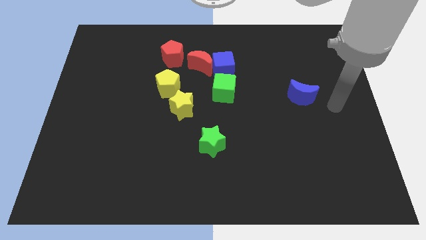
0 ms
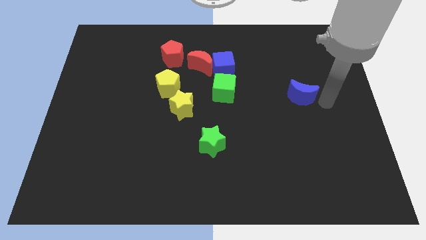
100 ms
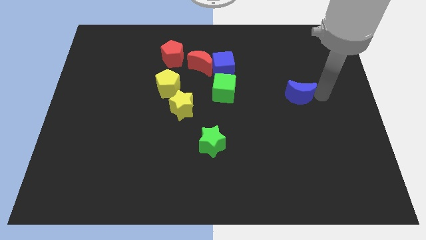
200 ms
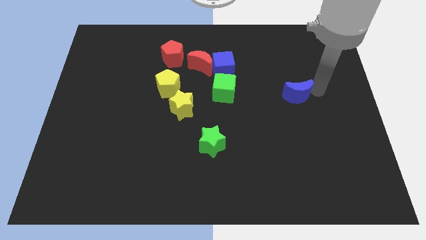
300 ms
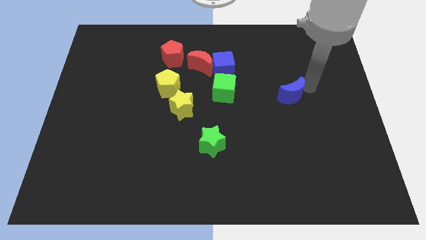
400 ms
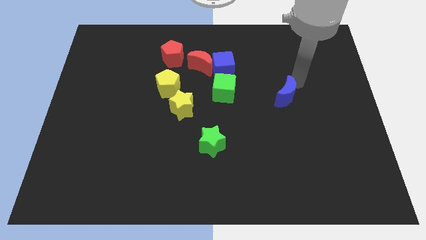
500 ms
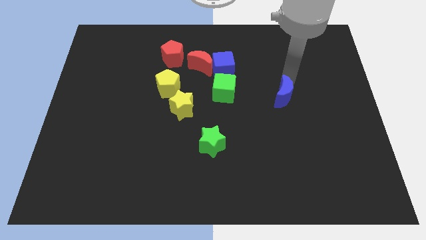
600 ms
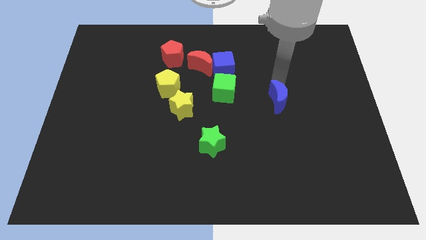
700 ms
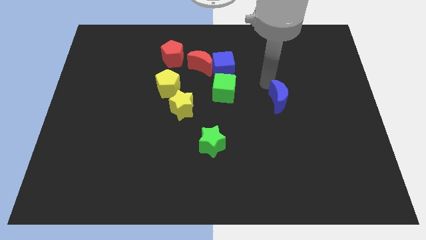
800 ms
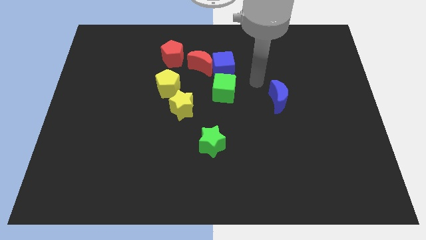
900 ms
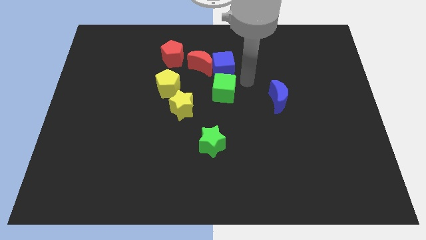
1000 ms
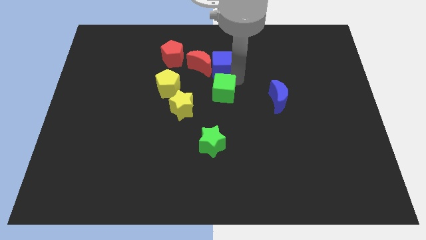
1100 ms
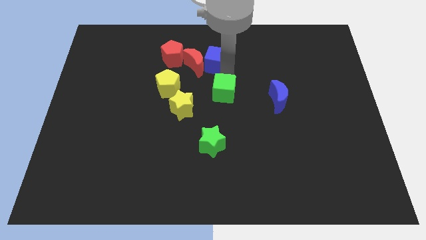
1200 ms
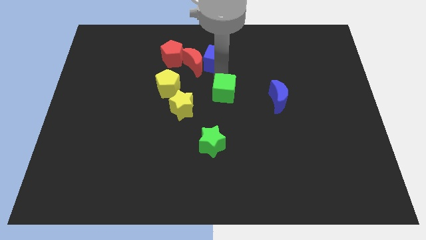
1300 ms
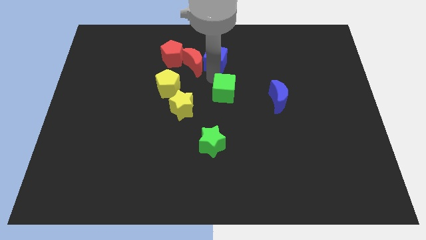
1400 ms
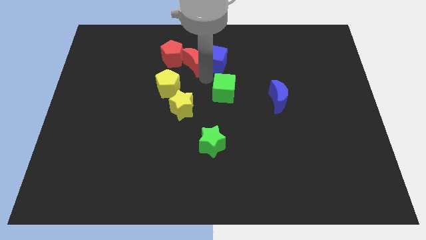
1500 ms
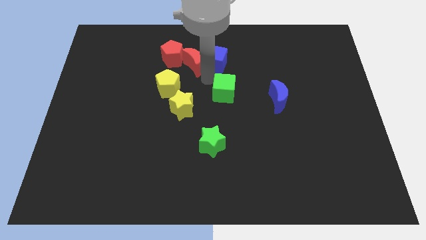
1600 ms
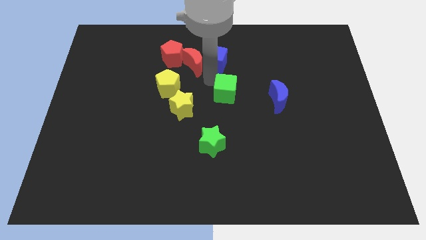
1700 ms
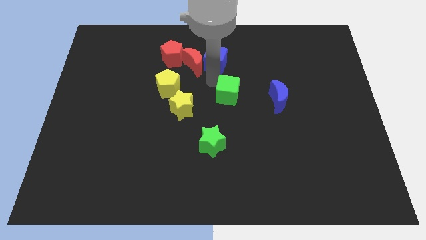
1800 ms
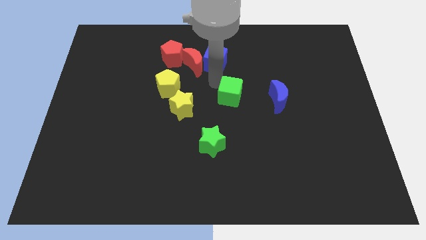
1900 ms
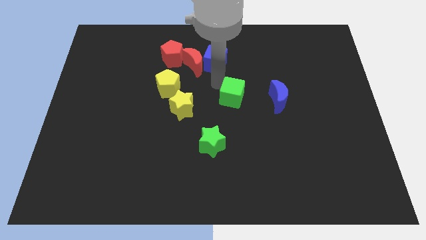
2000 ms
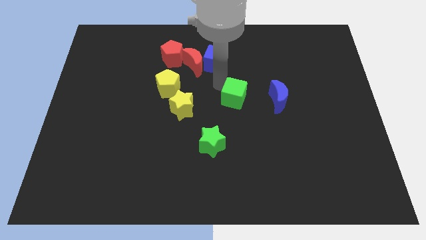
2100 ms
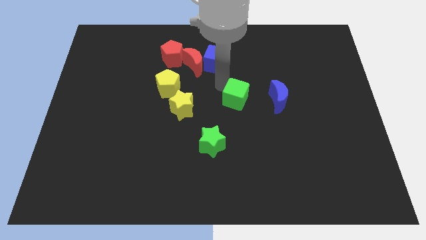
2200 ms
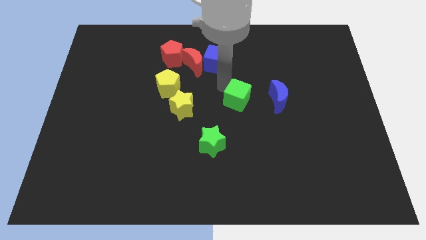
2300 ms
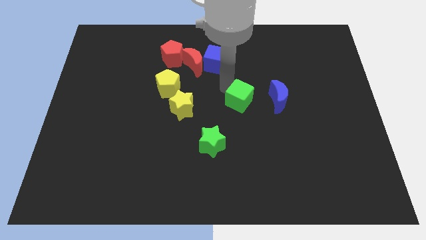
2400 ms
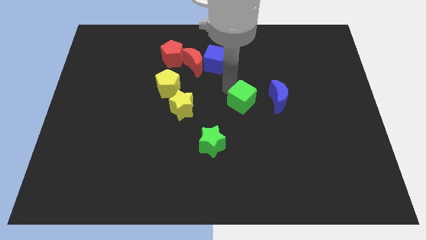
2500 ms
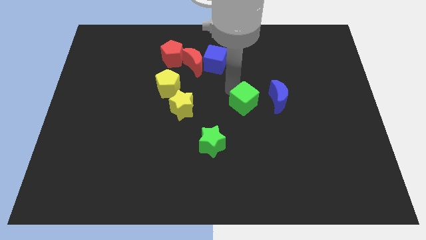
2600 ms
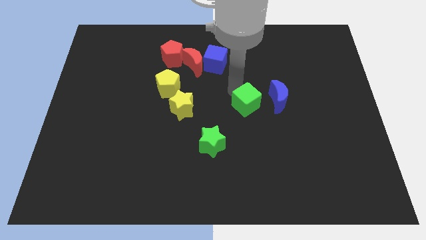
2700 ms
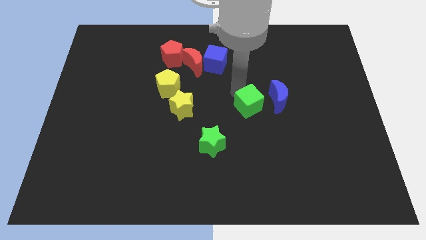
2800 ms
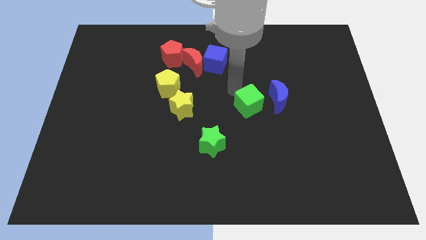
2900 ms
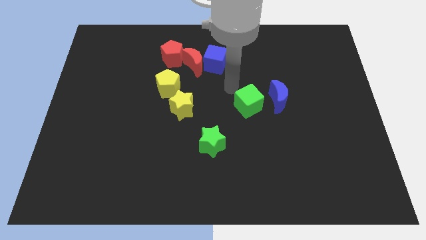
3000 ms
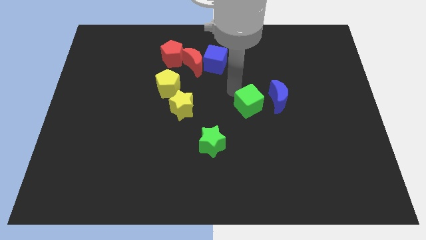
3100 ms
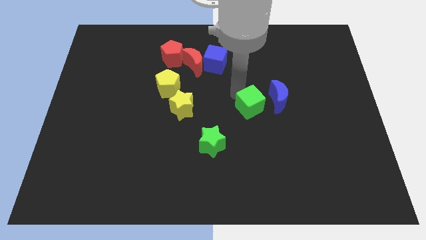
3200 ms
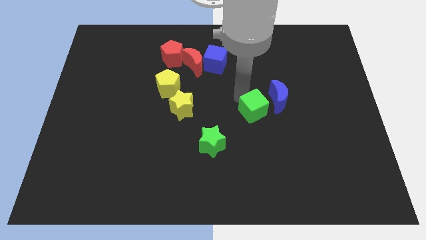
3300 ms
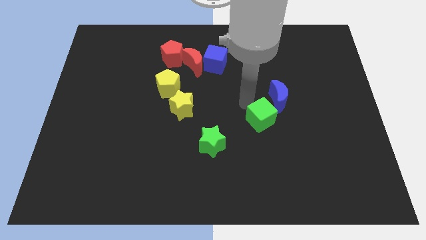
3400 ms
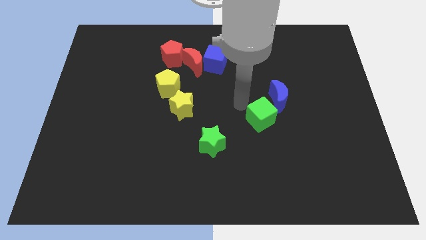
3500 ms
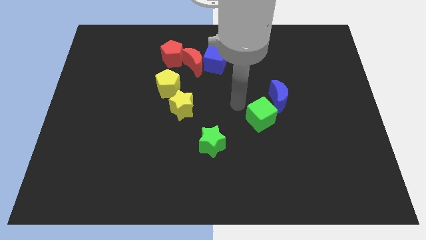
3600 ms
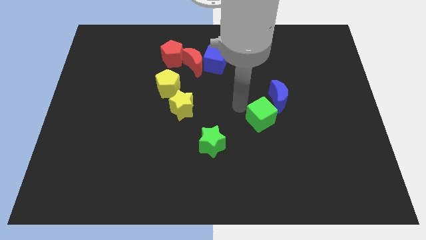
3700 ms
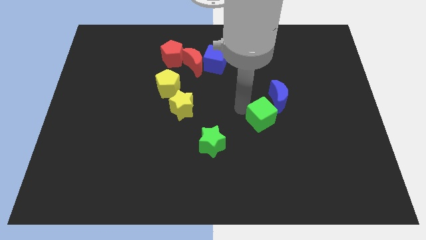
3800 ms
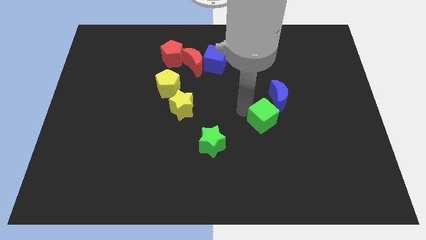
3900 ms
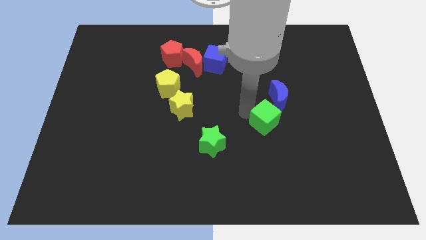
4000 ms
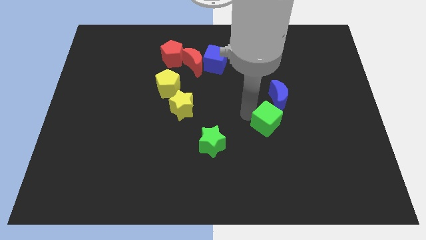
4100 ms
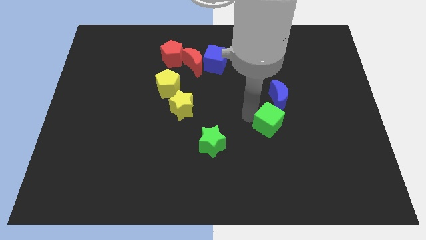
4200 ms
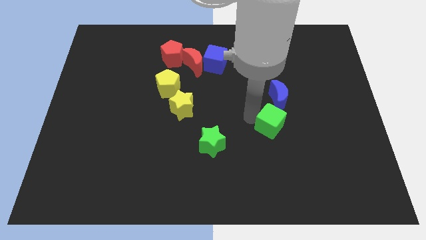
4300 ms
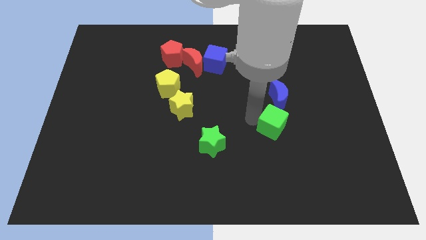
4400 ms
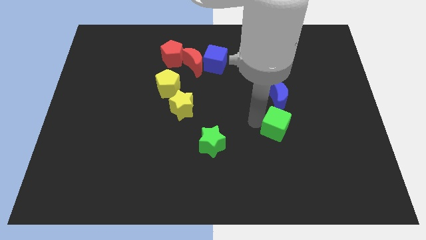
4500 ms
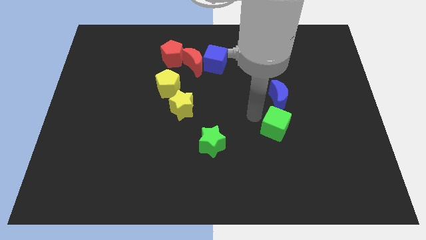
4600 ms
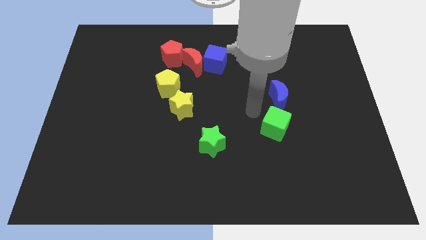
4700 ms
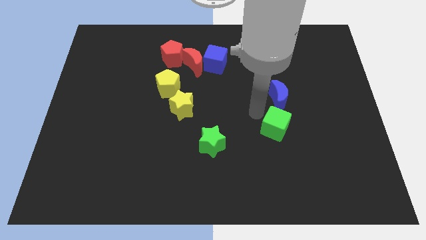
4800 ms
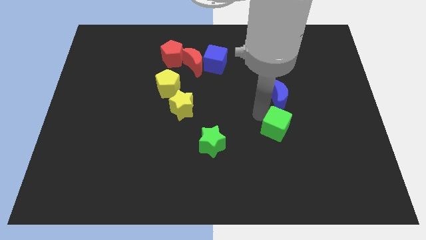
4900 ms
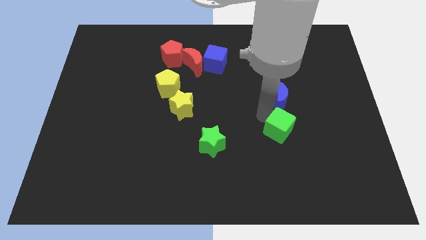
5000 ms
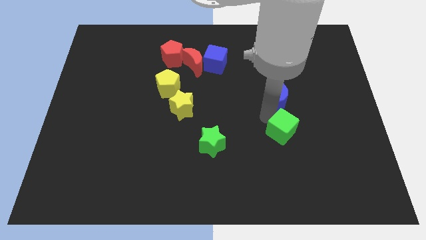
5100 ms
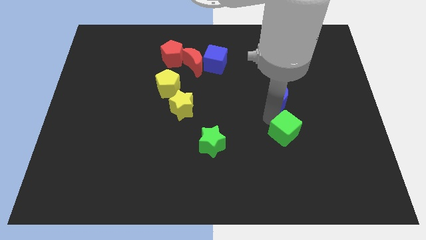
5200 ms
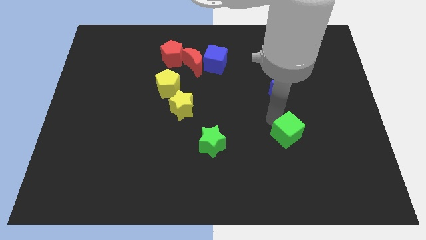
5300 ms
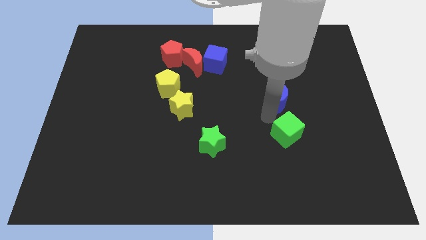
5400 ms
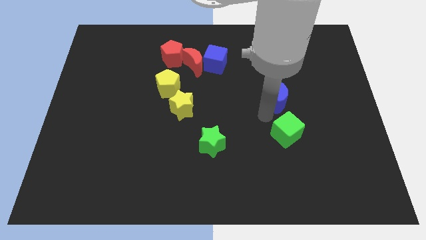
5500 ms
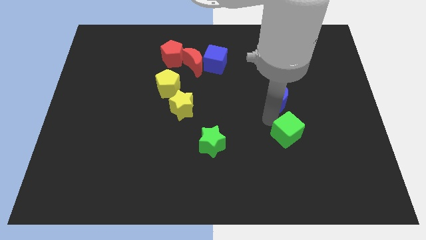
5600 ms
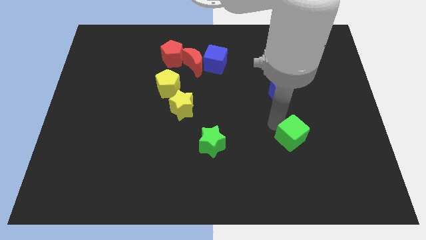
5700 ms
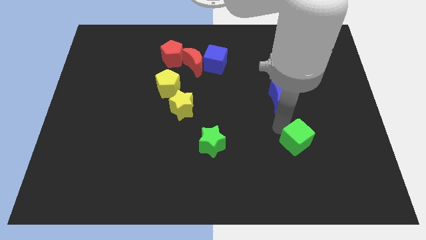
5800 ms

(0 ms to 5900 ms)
move the green cube diagonally down and right

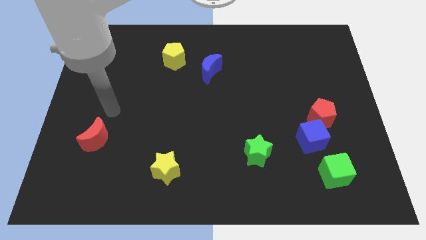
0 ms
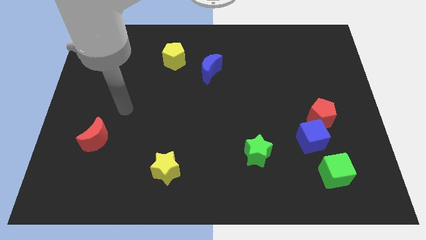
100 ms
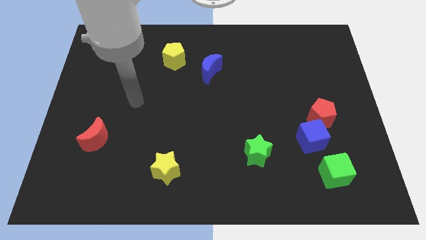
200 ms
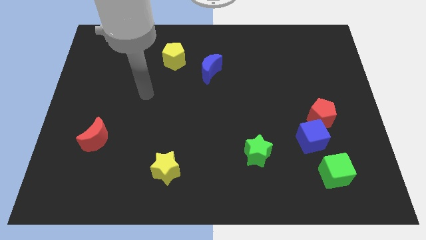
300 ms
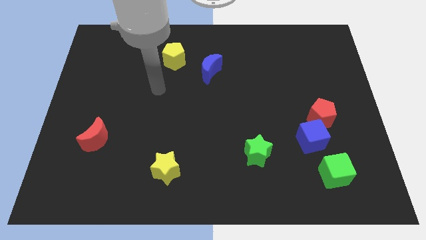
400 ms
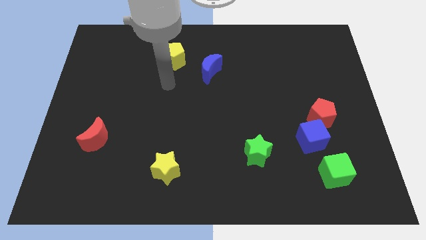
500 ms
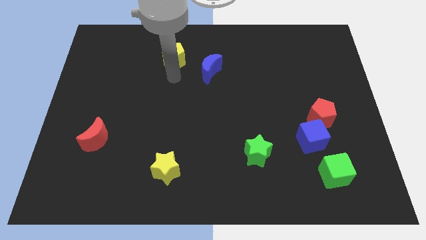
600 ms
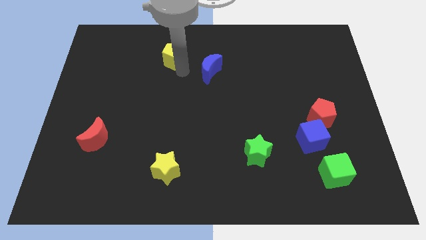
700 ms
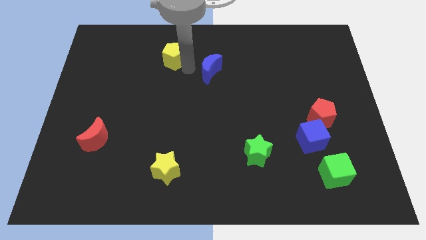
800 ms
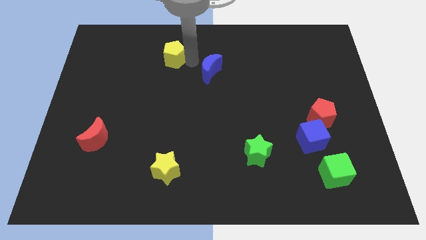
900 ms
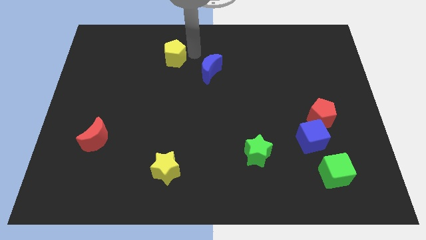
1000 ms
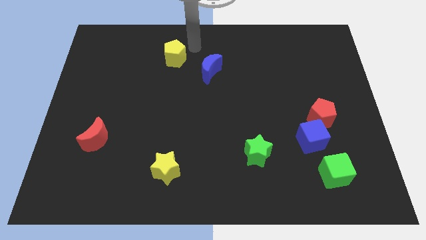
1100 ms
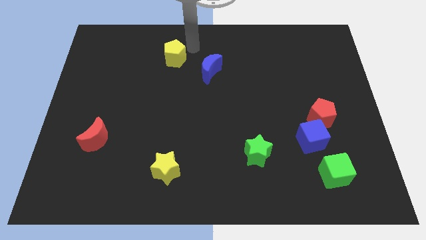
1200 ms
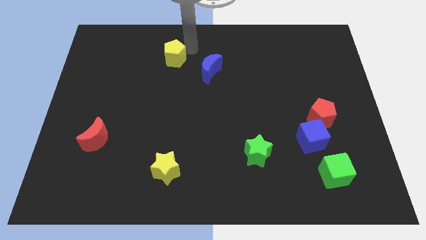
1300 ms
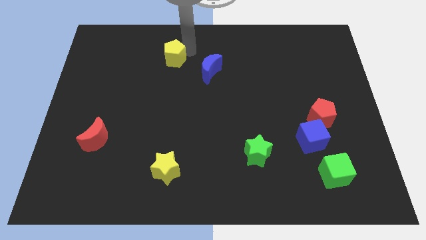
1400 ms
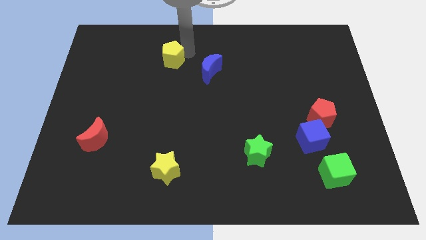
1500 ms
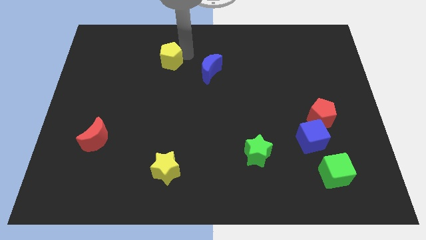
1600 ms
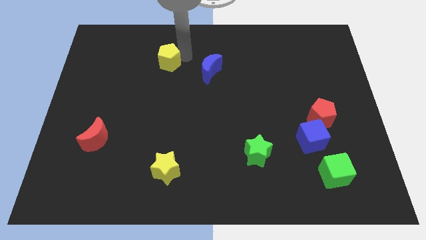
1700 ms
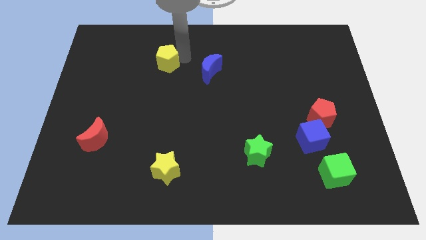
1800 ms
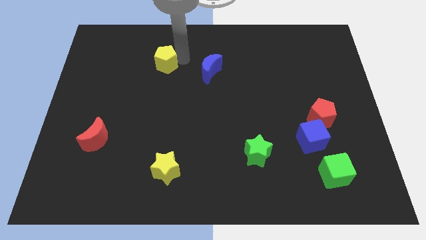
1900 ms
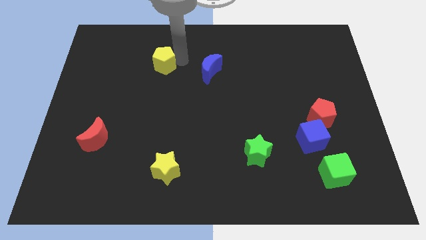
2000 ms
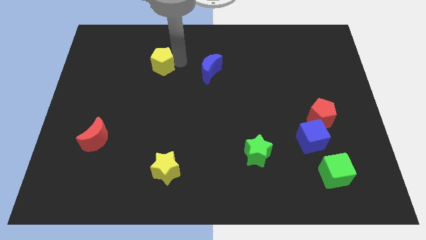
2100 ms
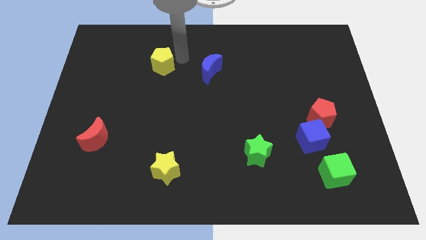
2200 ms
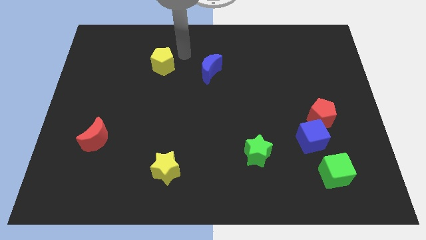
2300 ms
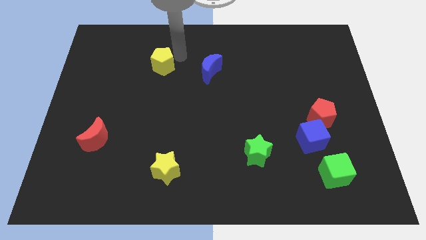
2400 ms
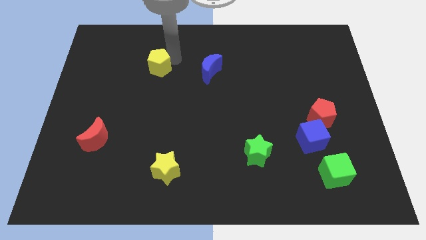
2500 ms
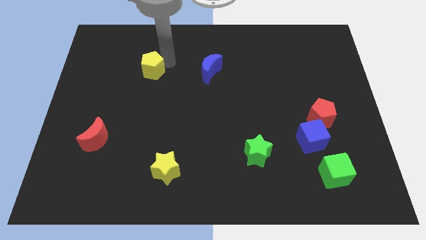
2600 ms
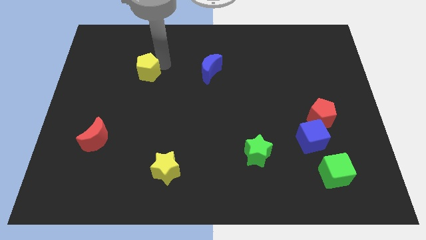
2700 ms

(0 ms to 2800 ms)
push the yellow pentagon a bit diagonally down and left
